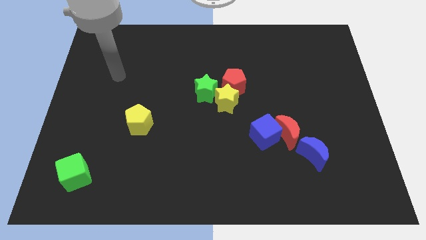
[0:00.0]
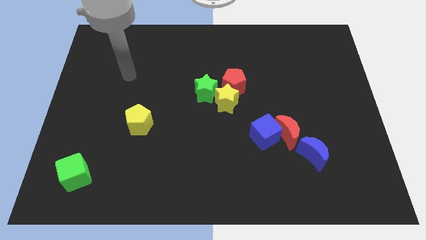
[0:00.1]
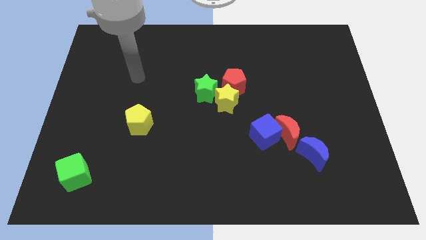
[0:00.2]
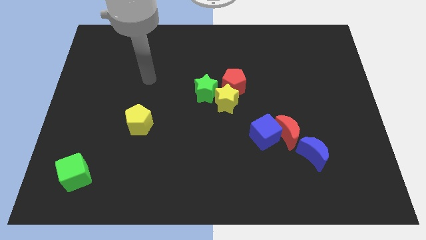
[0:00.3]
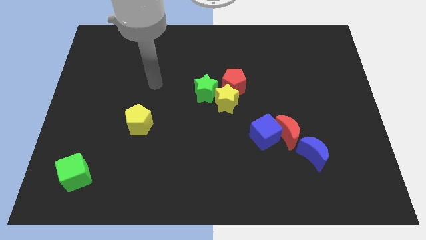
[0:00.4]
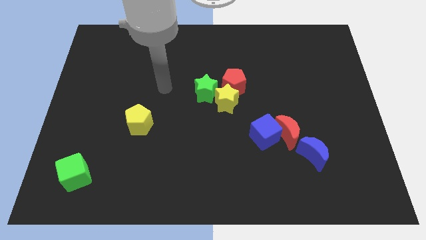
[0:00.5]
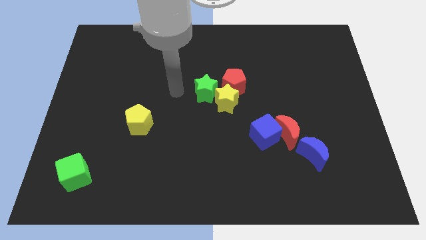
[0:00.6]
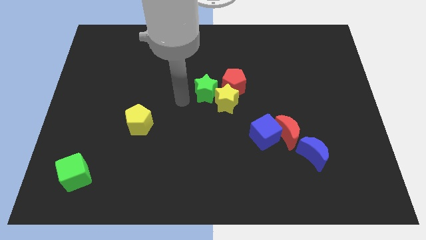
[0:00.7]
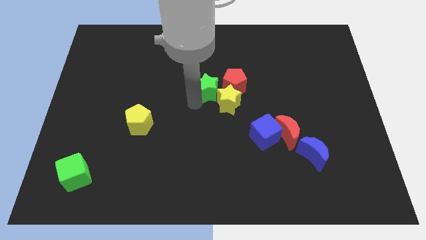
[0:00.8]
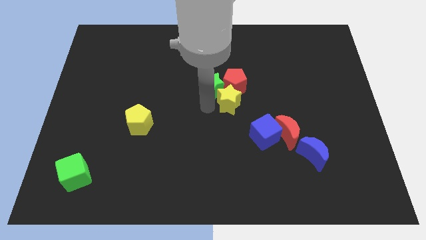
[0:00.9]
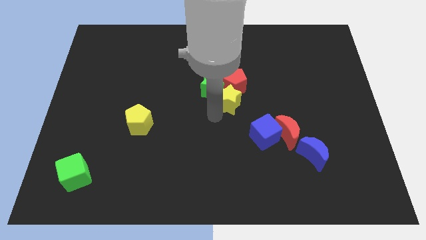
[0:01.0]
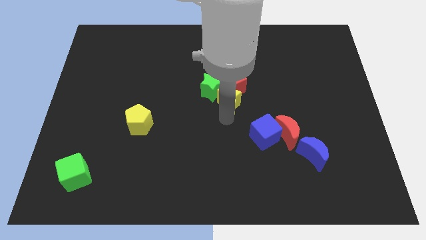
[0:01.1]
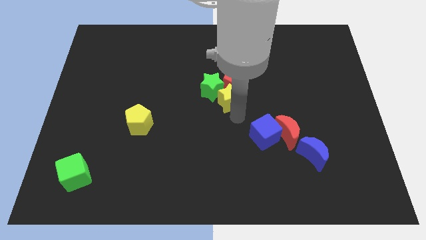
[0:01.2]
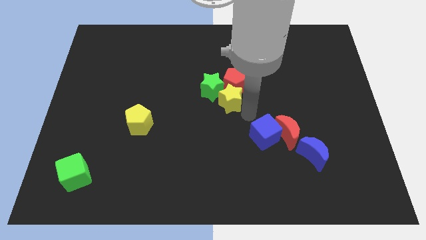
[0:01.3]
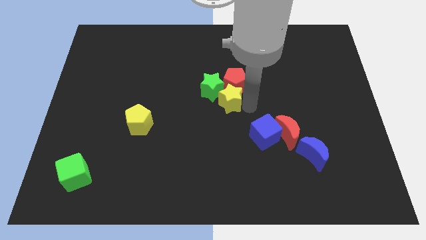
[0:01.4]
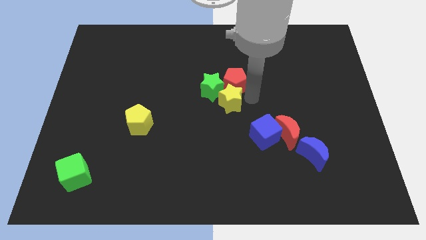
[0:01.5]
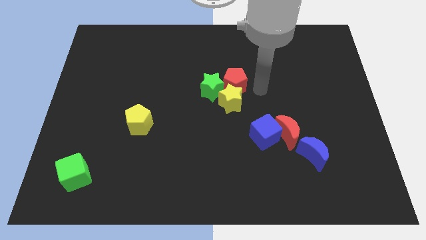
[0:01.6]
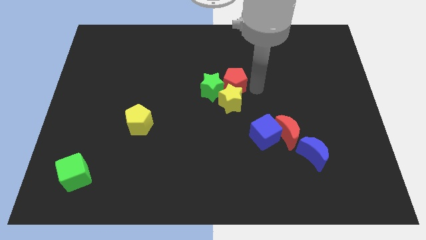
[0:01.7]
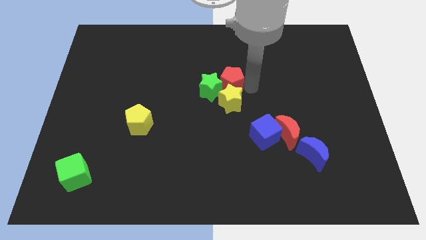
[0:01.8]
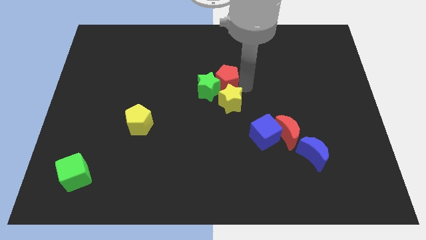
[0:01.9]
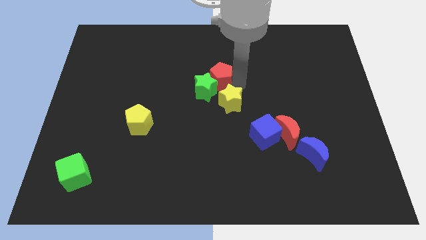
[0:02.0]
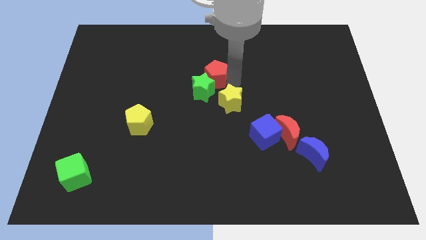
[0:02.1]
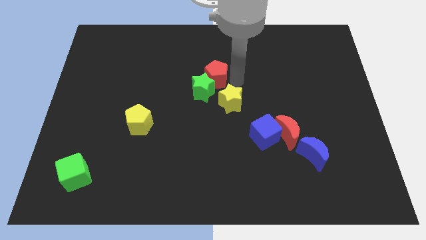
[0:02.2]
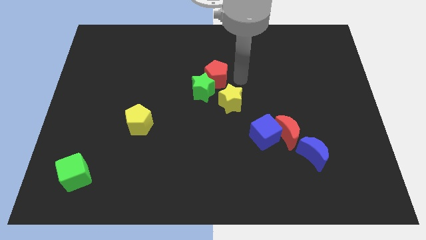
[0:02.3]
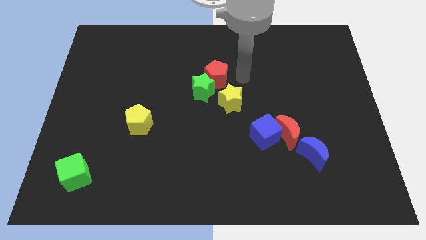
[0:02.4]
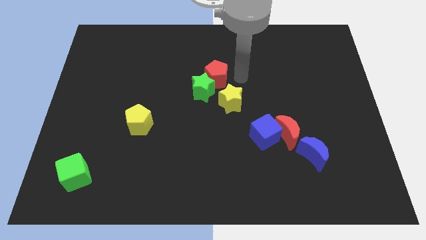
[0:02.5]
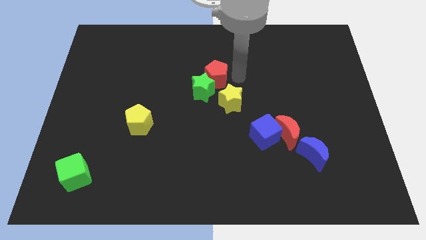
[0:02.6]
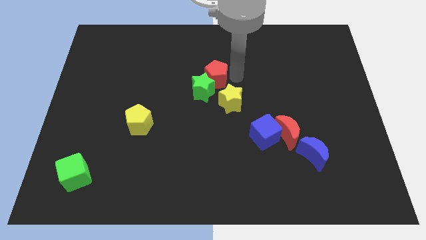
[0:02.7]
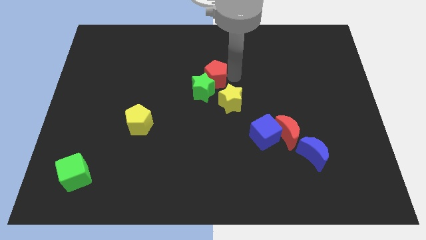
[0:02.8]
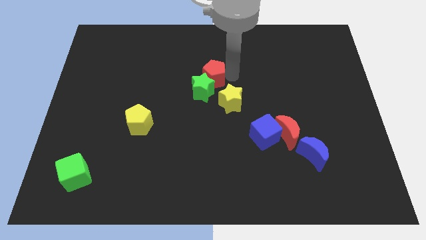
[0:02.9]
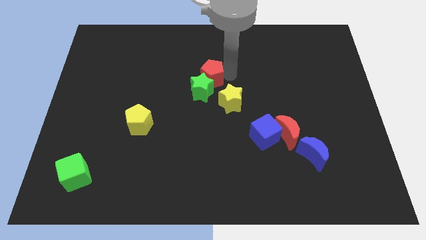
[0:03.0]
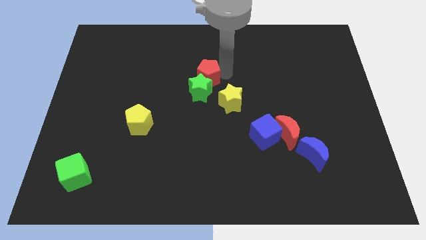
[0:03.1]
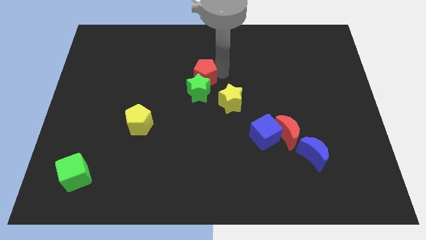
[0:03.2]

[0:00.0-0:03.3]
push the red pentagon slightly left

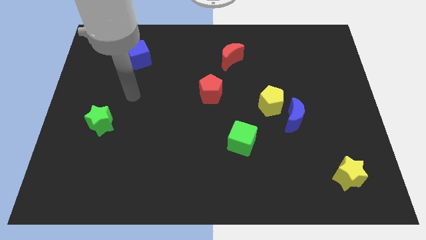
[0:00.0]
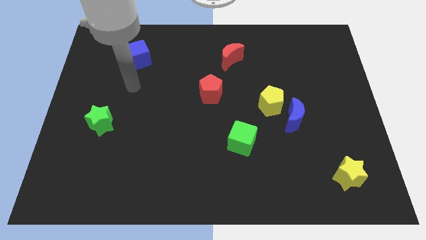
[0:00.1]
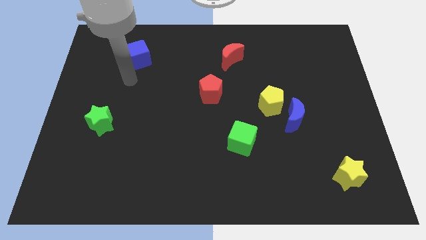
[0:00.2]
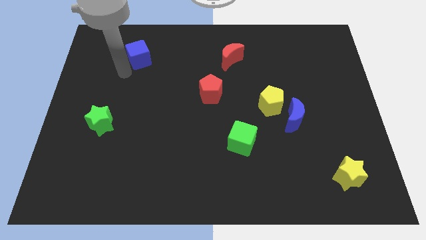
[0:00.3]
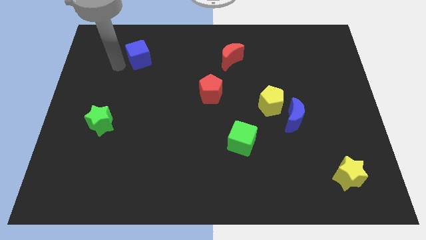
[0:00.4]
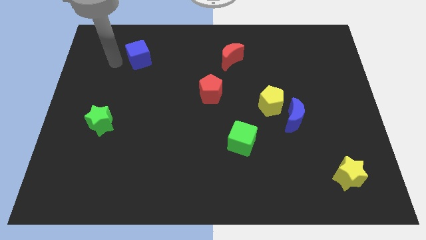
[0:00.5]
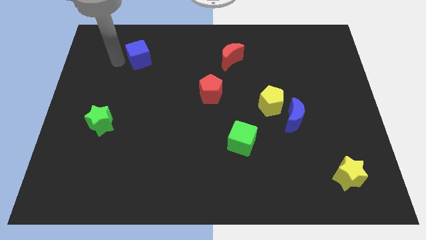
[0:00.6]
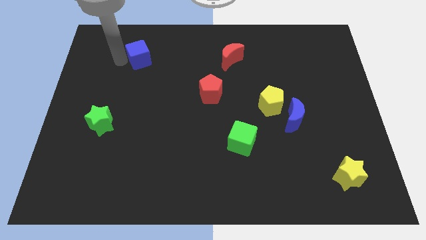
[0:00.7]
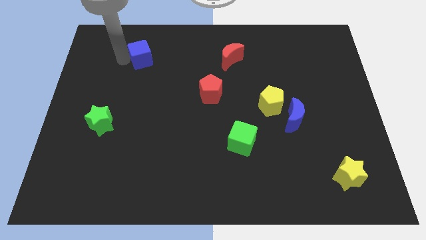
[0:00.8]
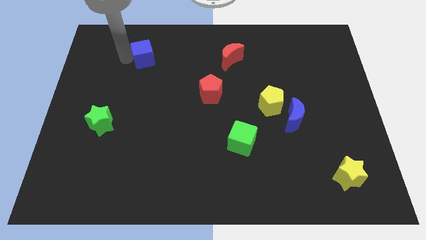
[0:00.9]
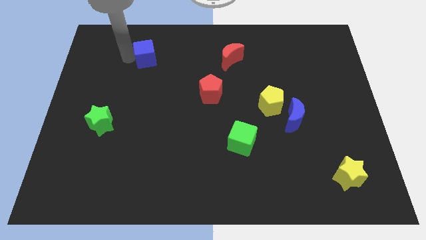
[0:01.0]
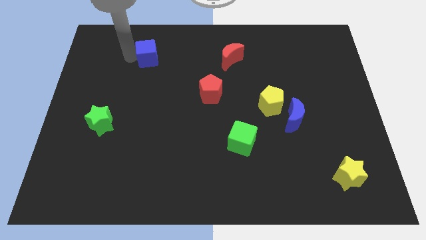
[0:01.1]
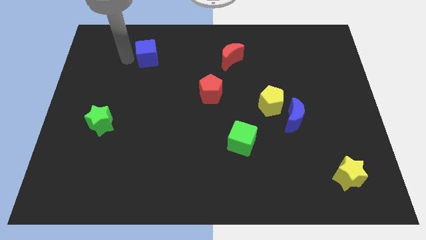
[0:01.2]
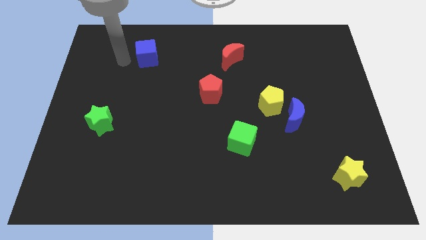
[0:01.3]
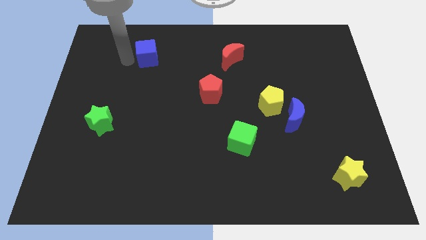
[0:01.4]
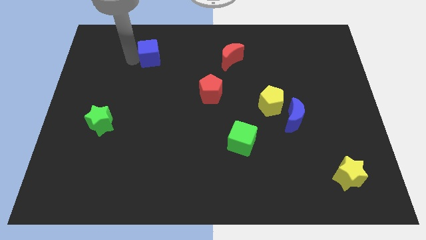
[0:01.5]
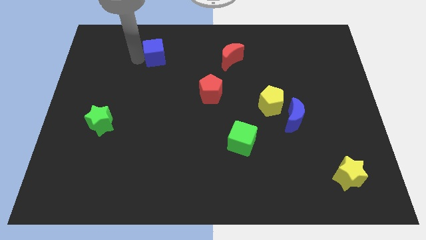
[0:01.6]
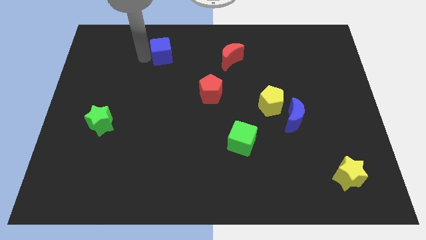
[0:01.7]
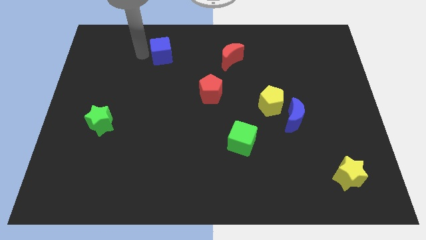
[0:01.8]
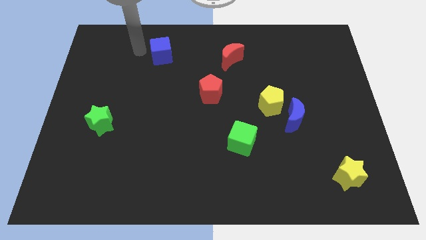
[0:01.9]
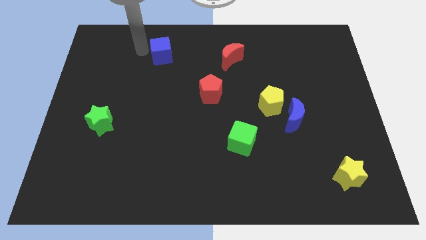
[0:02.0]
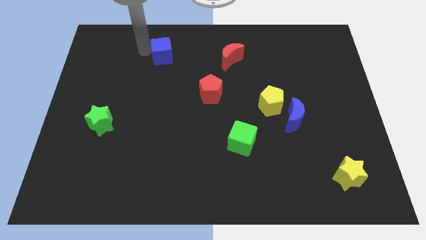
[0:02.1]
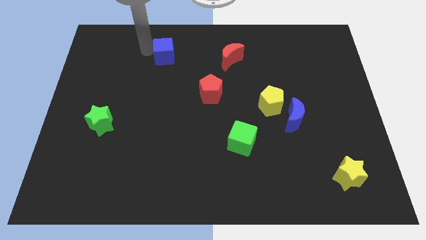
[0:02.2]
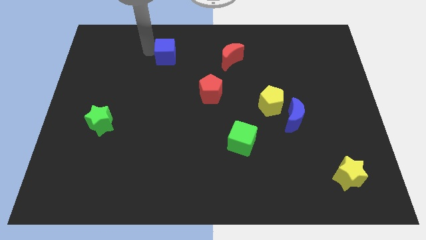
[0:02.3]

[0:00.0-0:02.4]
slide the blue cube right a little

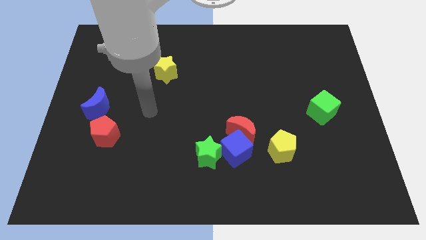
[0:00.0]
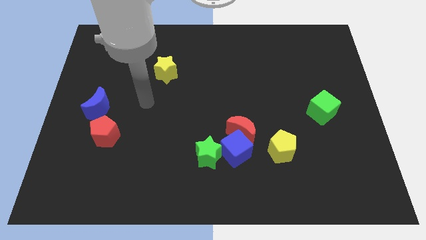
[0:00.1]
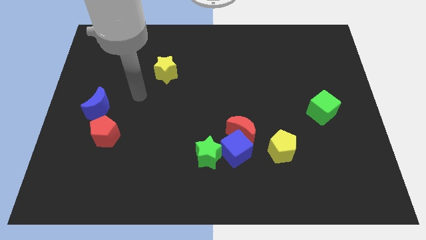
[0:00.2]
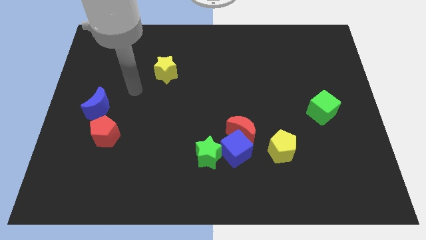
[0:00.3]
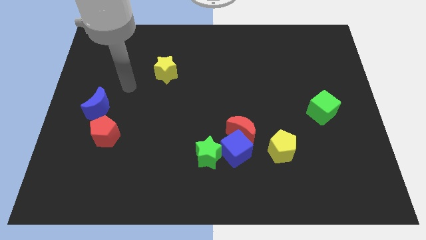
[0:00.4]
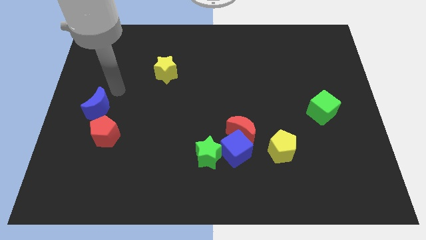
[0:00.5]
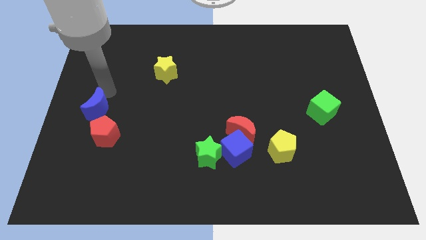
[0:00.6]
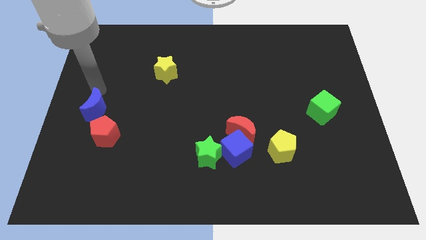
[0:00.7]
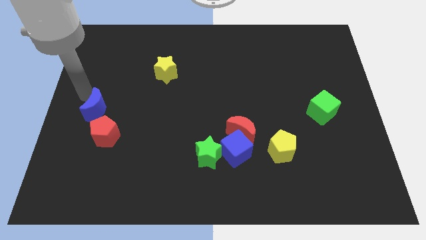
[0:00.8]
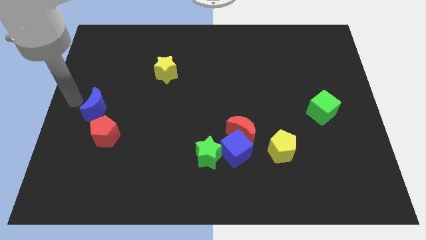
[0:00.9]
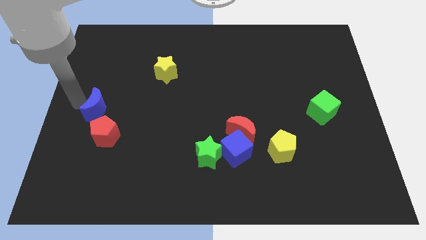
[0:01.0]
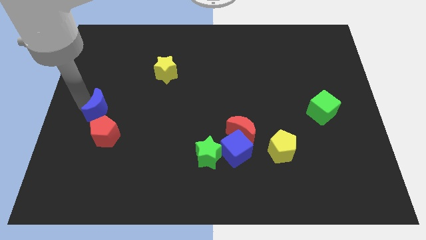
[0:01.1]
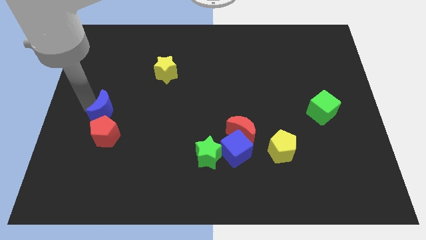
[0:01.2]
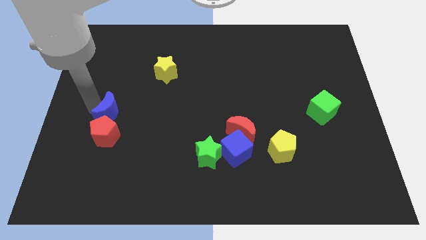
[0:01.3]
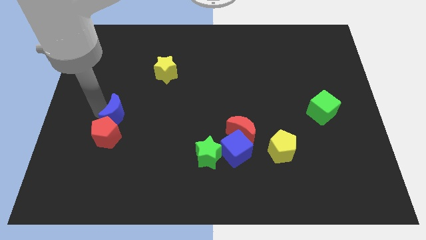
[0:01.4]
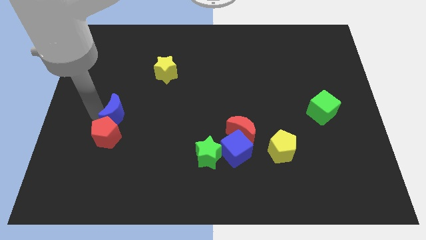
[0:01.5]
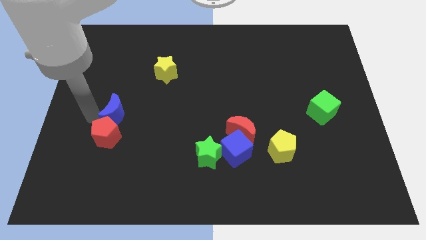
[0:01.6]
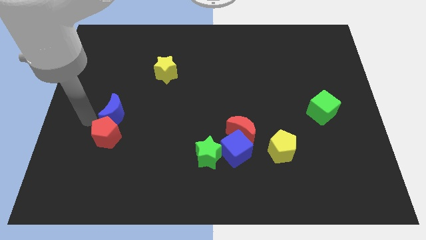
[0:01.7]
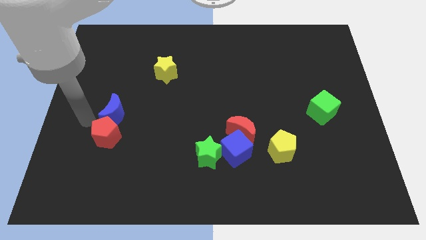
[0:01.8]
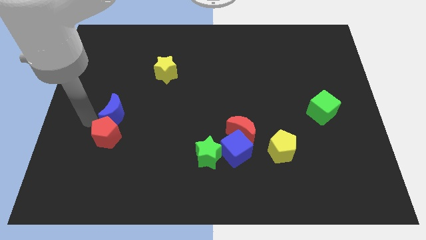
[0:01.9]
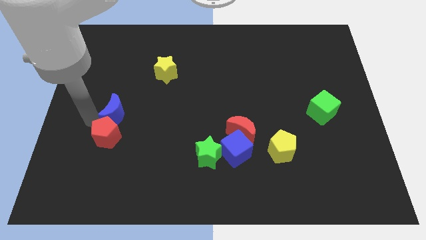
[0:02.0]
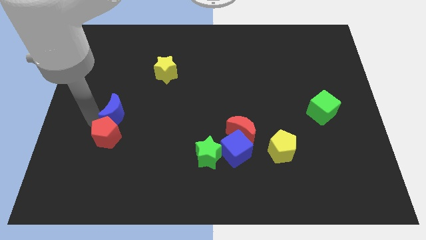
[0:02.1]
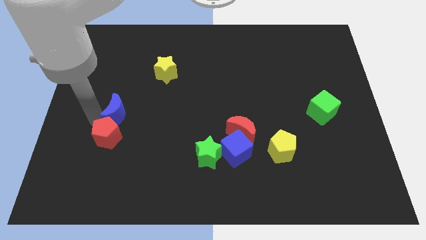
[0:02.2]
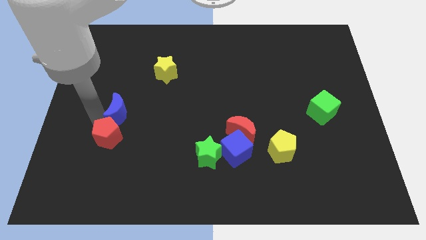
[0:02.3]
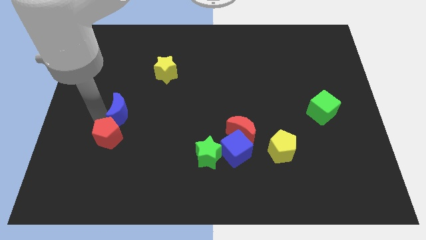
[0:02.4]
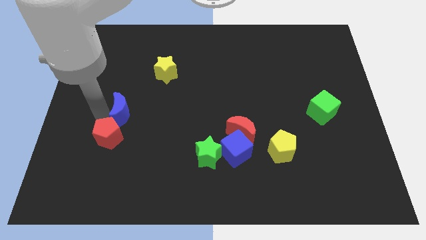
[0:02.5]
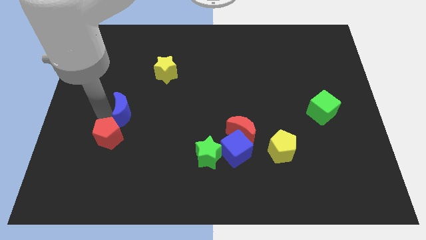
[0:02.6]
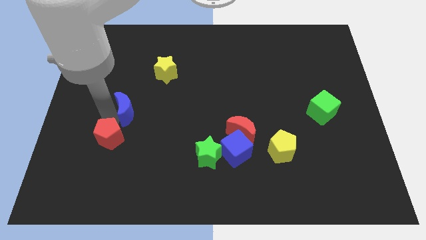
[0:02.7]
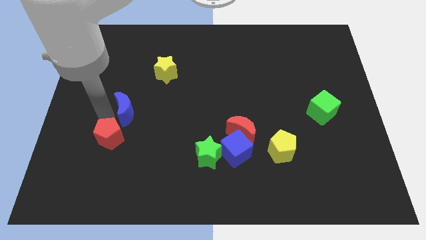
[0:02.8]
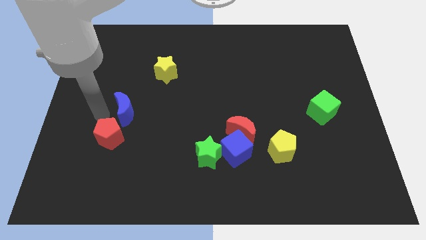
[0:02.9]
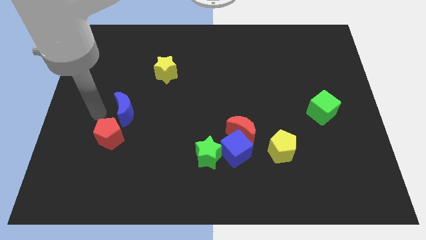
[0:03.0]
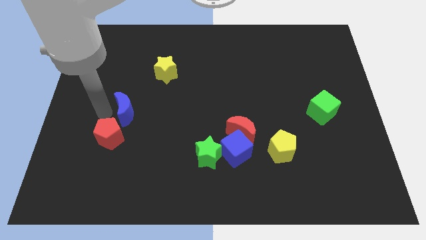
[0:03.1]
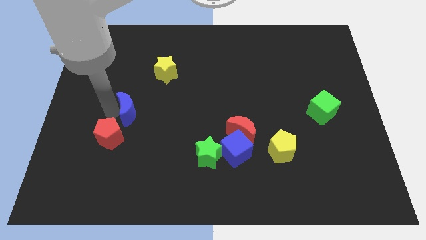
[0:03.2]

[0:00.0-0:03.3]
move the blue moon to the right a little
